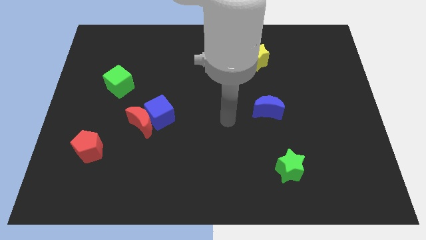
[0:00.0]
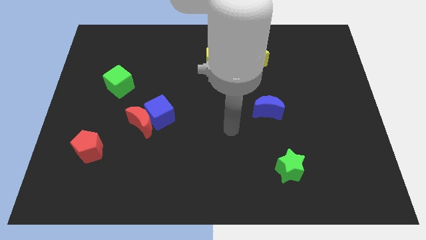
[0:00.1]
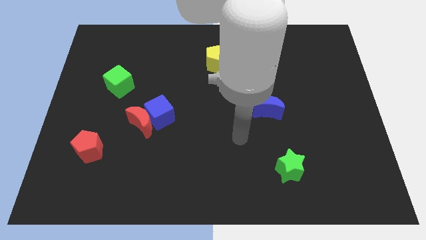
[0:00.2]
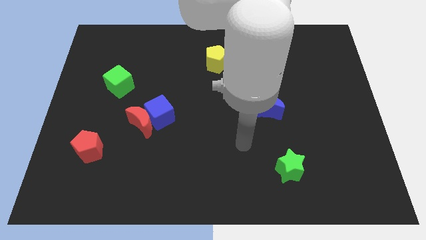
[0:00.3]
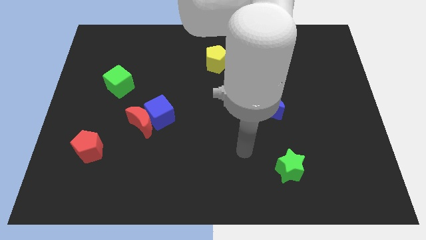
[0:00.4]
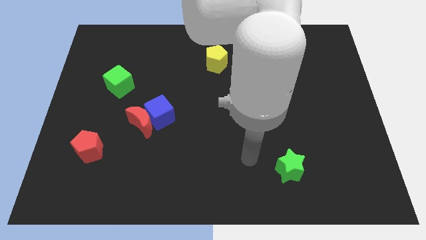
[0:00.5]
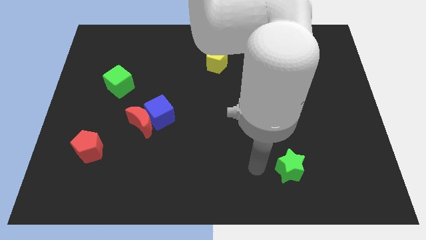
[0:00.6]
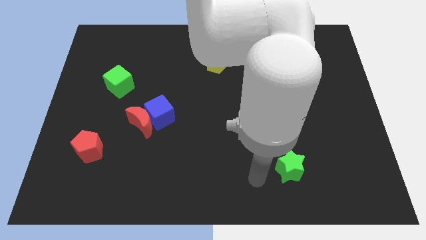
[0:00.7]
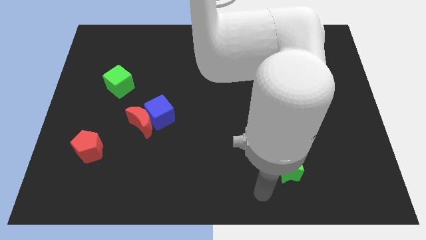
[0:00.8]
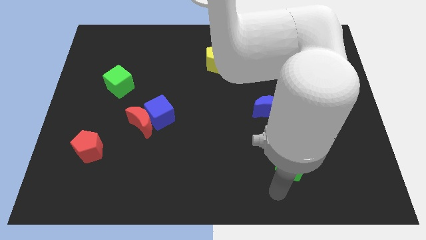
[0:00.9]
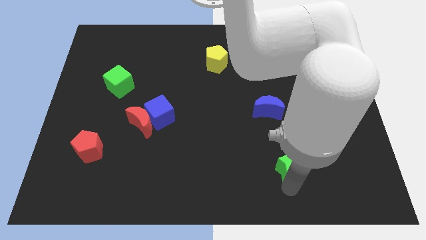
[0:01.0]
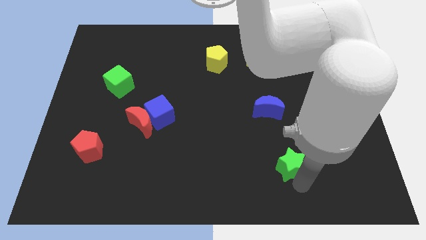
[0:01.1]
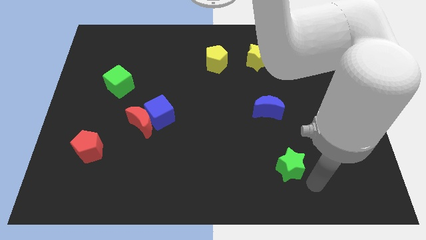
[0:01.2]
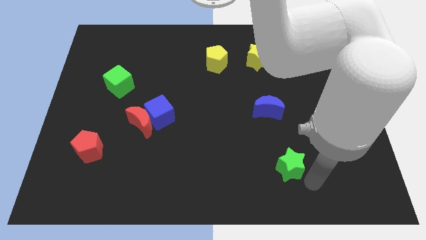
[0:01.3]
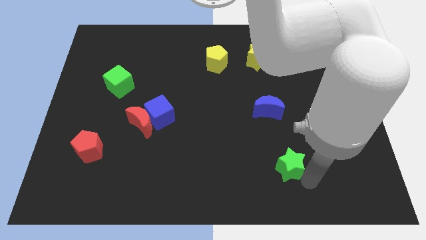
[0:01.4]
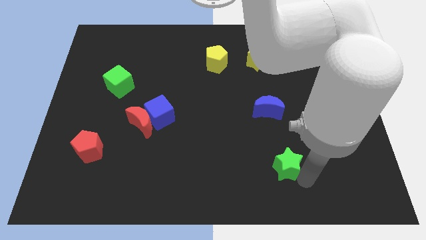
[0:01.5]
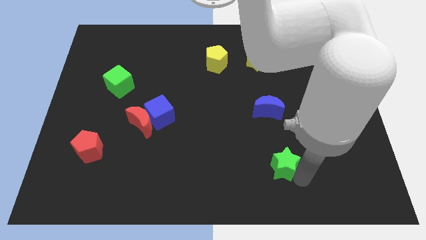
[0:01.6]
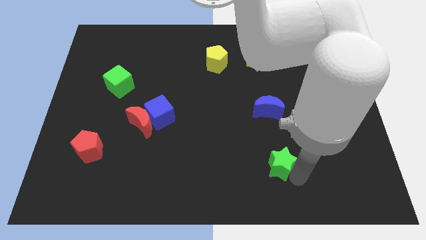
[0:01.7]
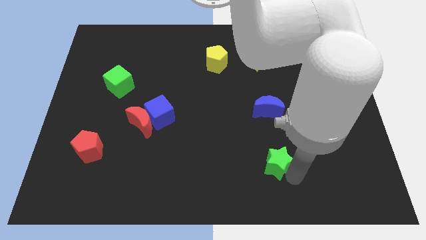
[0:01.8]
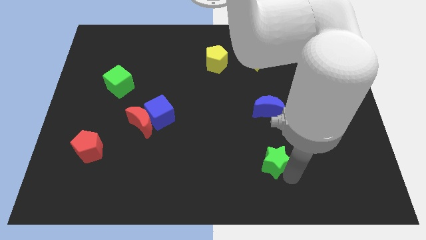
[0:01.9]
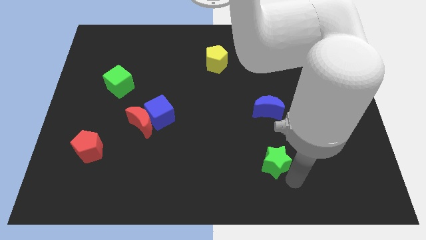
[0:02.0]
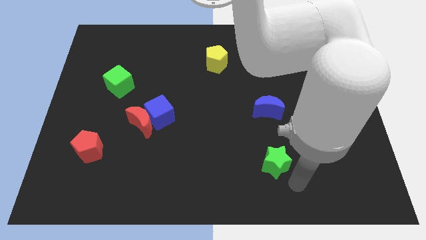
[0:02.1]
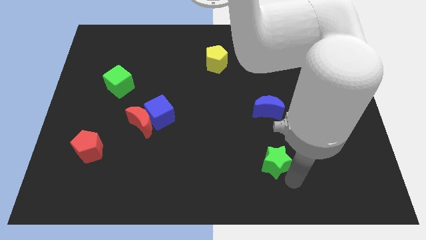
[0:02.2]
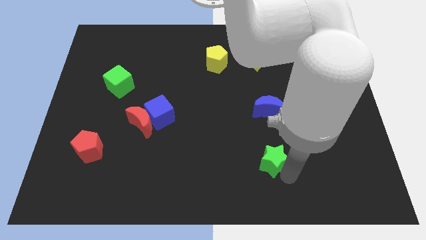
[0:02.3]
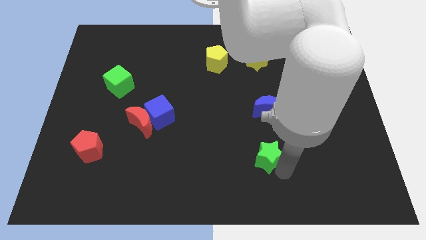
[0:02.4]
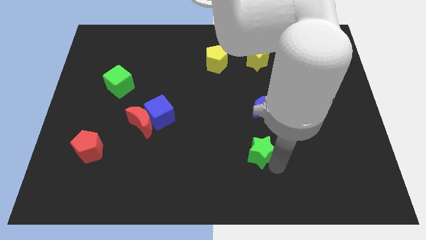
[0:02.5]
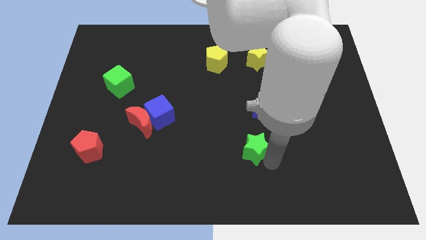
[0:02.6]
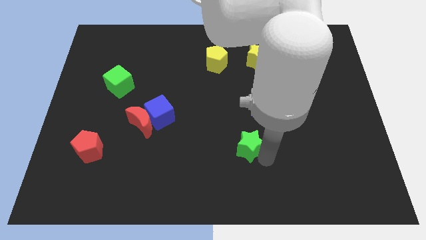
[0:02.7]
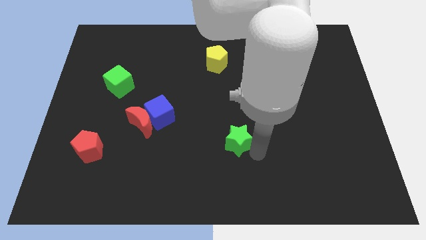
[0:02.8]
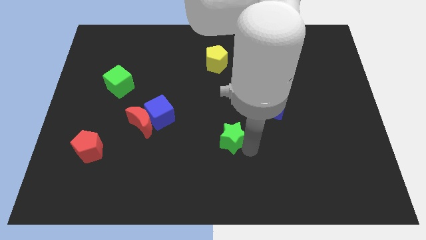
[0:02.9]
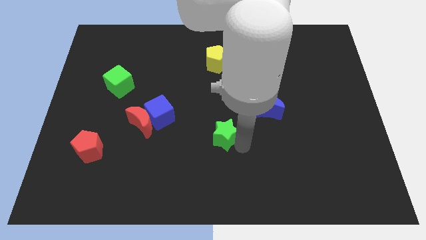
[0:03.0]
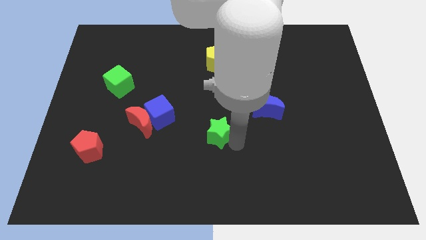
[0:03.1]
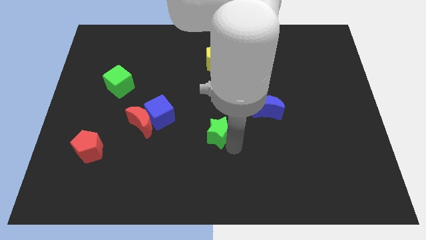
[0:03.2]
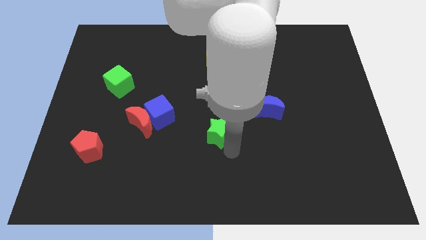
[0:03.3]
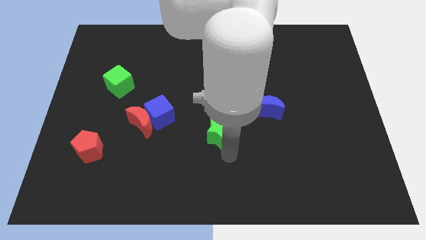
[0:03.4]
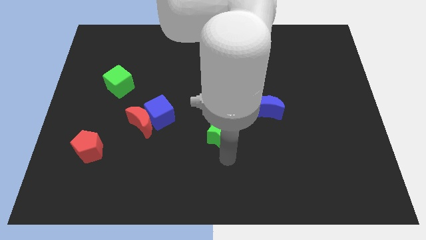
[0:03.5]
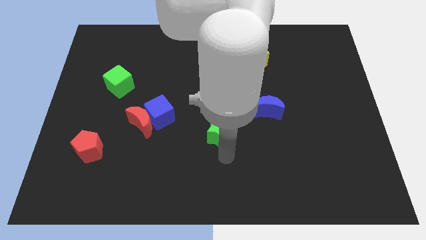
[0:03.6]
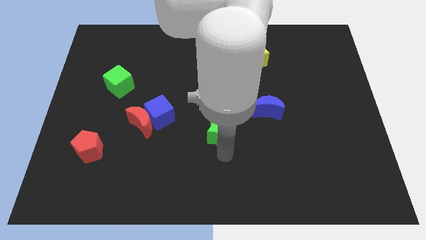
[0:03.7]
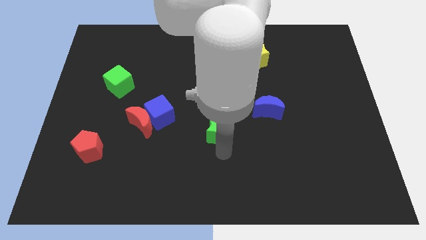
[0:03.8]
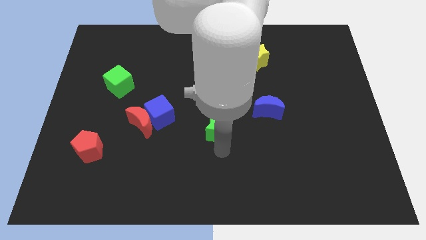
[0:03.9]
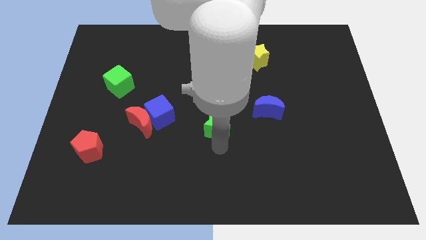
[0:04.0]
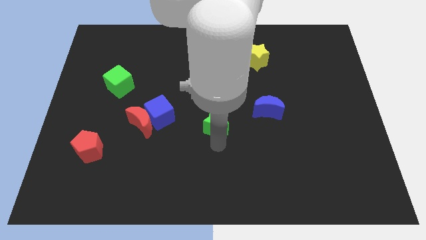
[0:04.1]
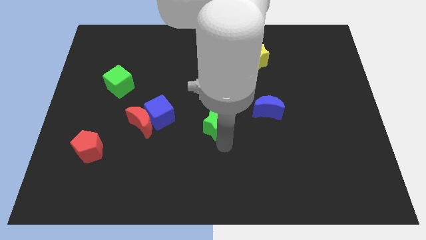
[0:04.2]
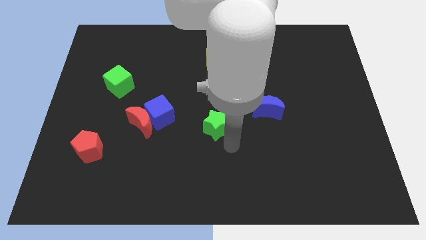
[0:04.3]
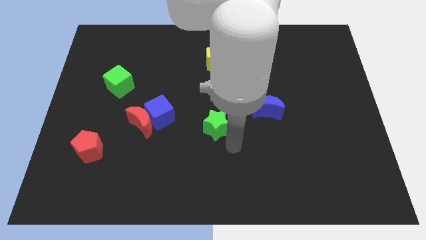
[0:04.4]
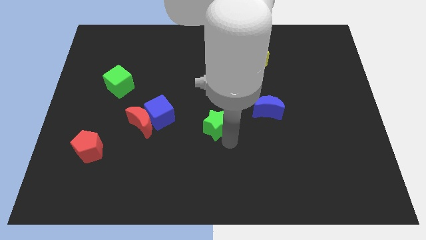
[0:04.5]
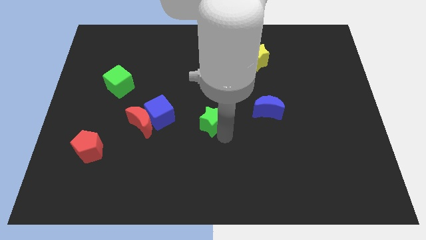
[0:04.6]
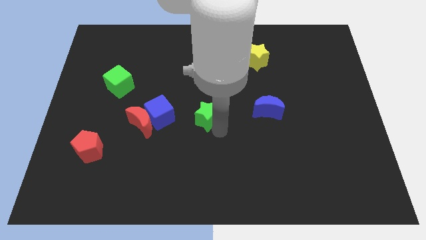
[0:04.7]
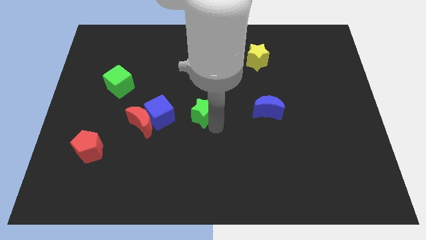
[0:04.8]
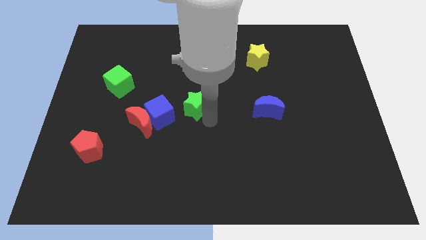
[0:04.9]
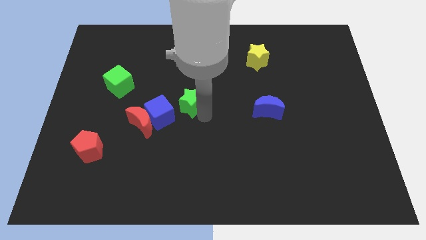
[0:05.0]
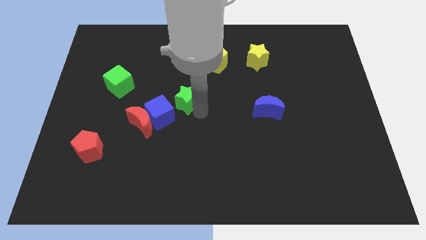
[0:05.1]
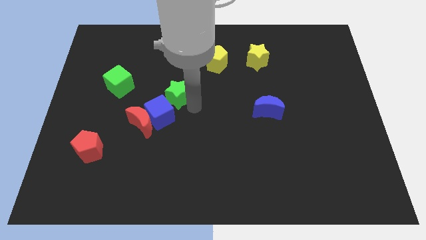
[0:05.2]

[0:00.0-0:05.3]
move the green star above the blue cube

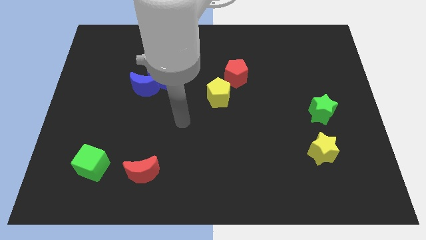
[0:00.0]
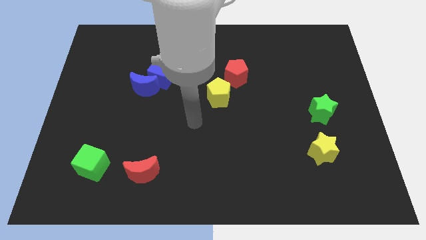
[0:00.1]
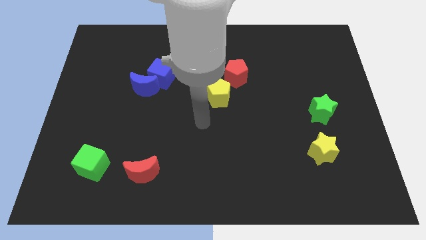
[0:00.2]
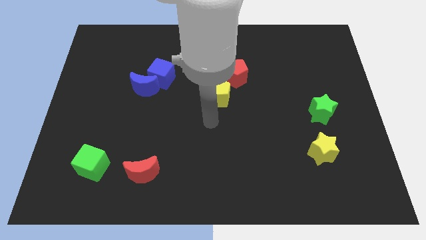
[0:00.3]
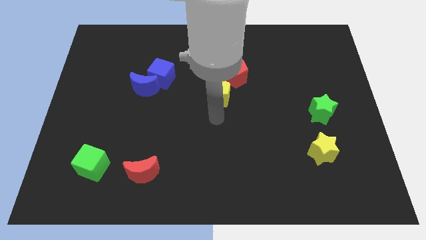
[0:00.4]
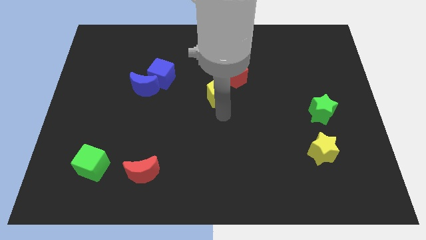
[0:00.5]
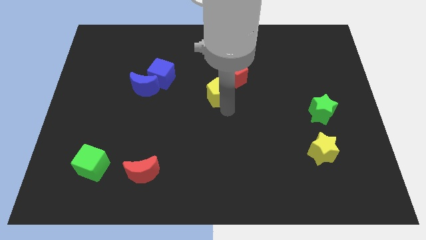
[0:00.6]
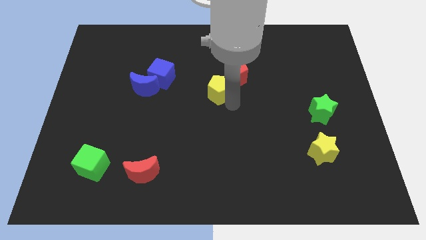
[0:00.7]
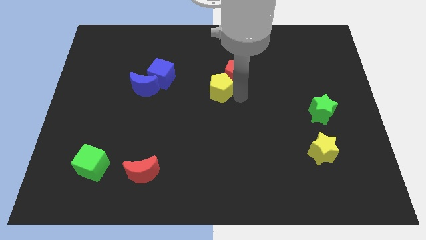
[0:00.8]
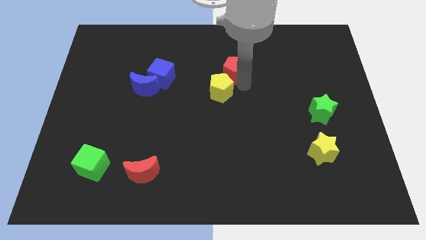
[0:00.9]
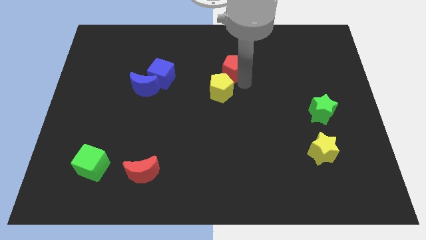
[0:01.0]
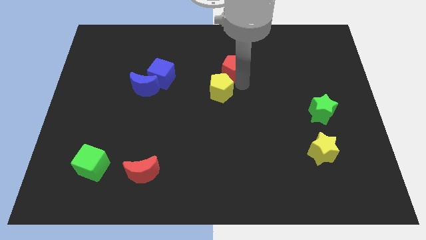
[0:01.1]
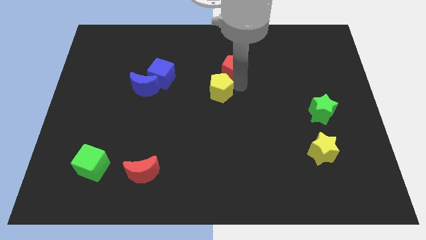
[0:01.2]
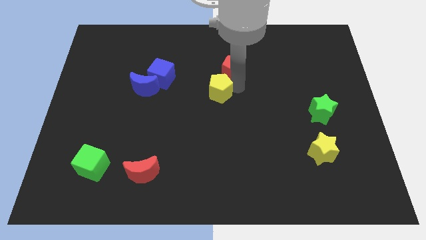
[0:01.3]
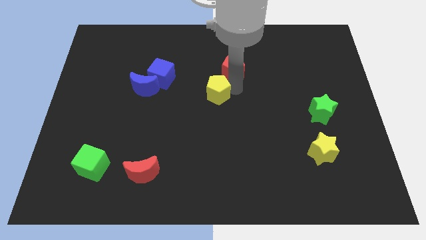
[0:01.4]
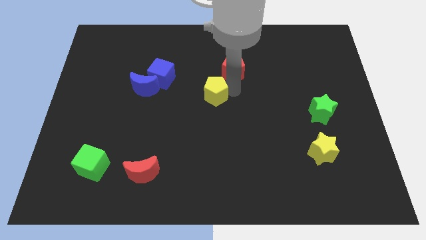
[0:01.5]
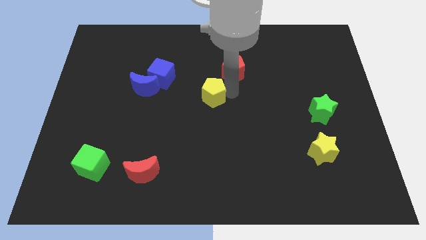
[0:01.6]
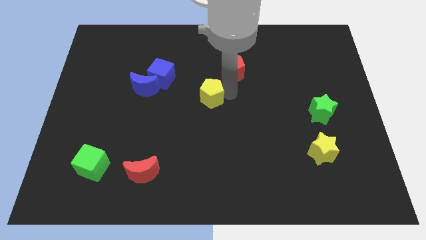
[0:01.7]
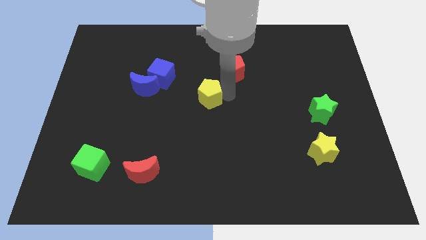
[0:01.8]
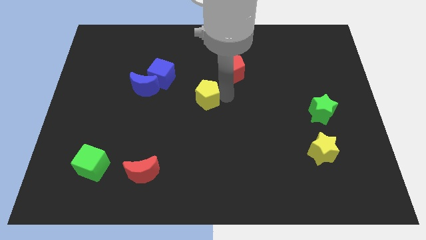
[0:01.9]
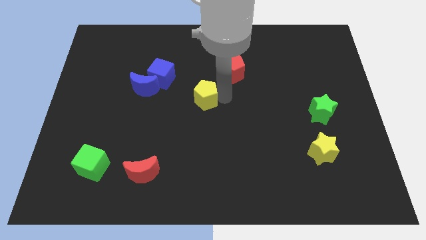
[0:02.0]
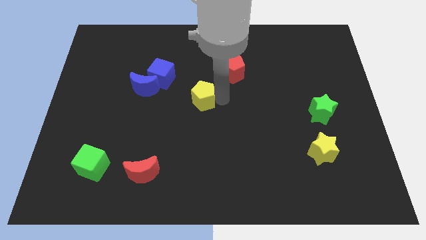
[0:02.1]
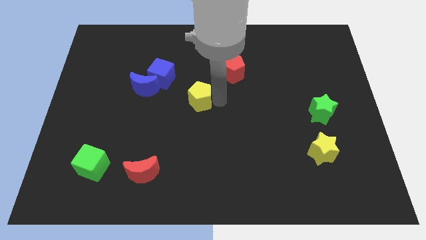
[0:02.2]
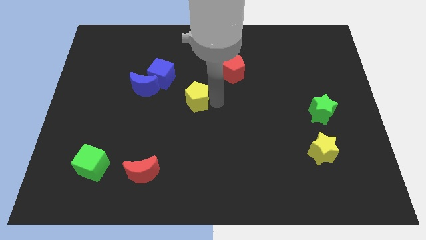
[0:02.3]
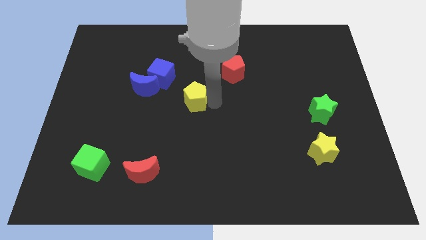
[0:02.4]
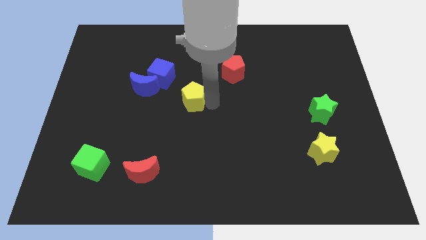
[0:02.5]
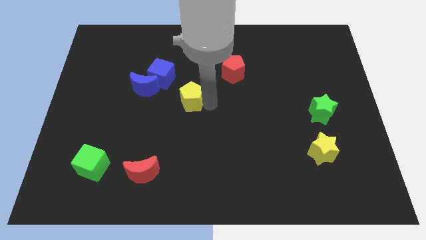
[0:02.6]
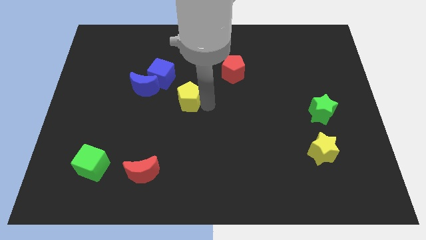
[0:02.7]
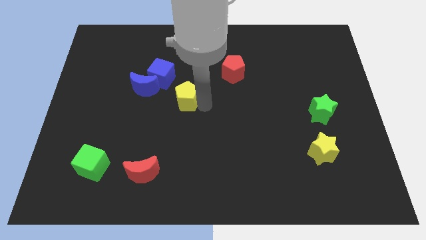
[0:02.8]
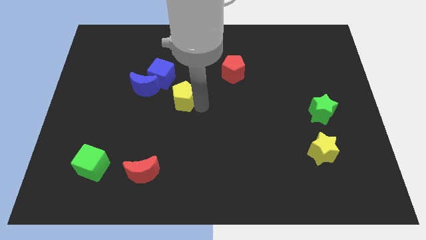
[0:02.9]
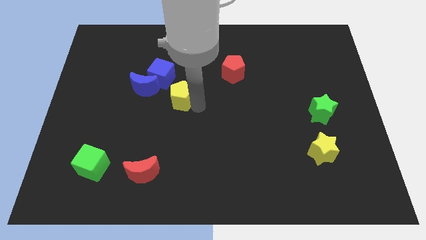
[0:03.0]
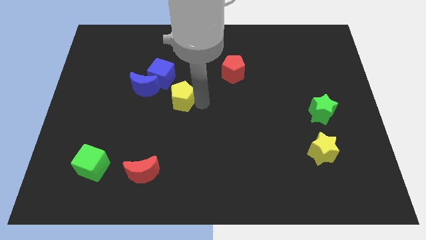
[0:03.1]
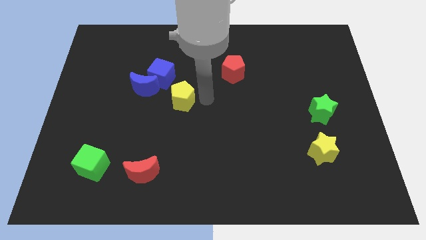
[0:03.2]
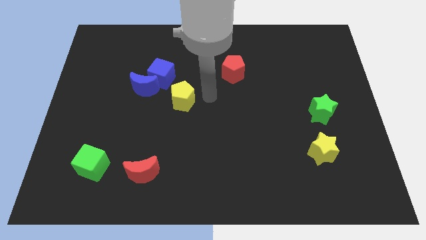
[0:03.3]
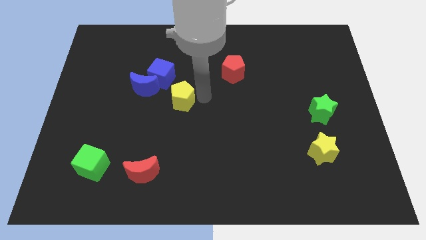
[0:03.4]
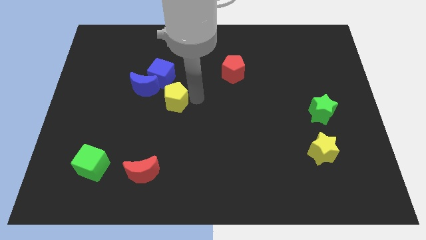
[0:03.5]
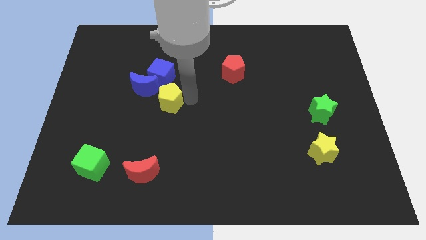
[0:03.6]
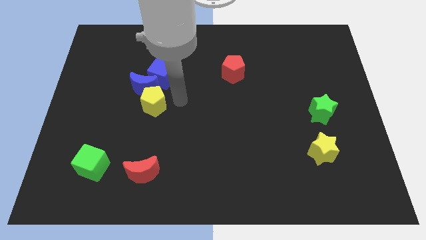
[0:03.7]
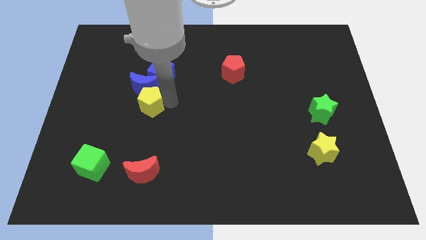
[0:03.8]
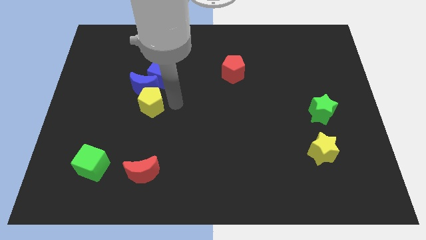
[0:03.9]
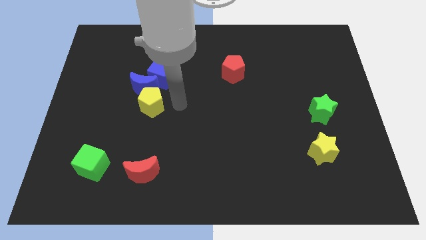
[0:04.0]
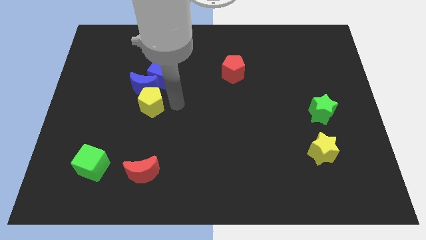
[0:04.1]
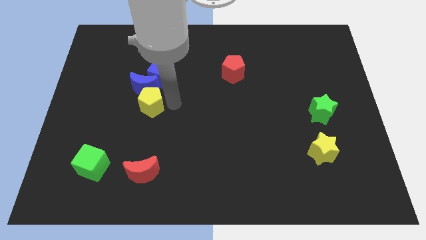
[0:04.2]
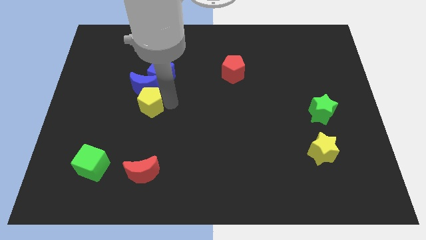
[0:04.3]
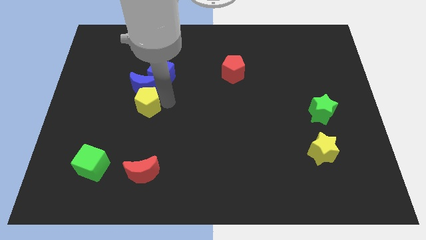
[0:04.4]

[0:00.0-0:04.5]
move the yellow pentagon diagonally down and to the left of the blue moon
